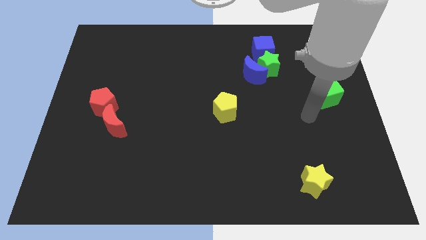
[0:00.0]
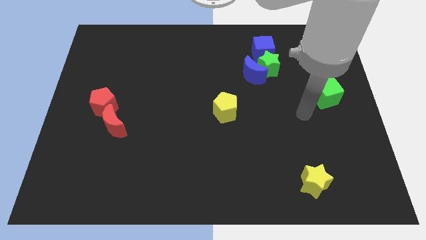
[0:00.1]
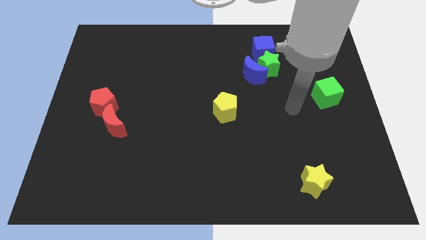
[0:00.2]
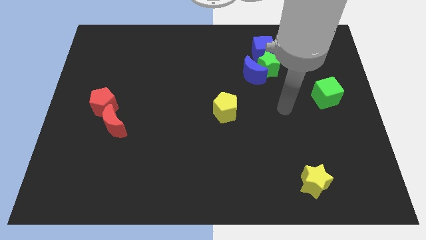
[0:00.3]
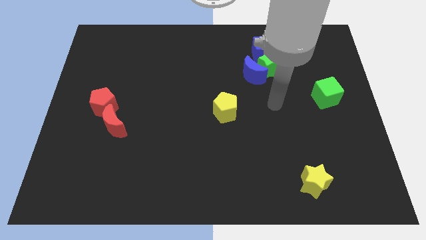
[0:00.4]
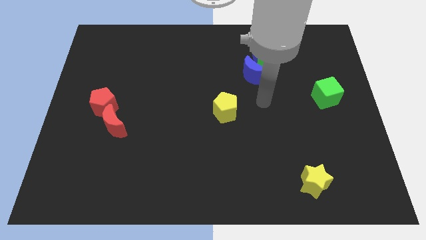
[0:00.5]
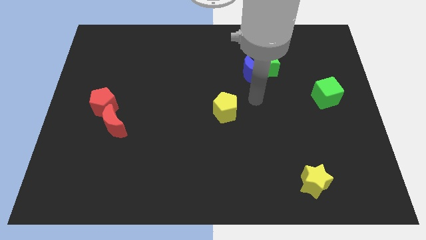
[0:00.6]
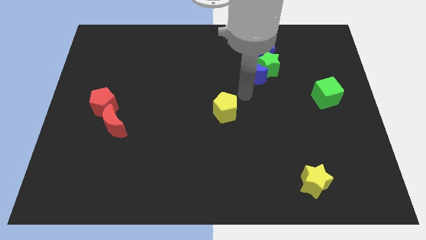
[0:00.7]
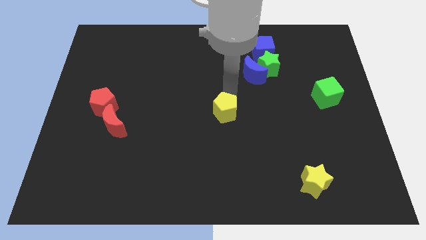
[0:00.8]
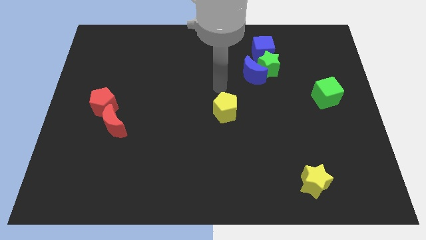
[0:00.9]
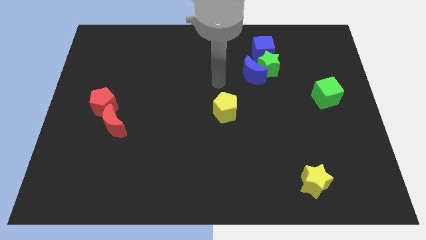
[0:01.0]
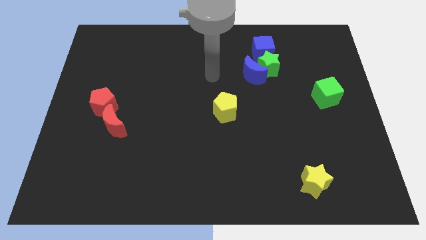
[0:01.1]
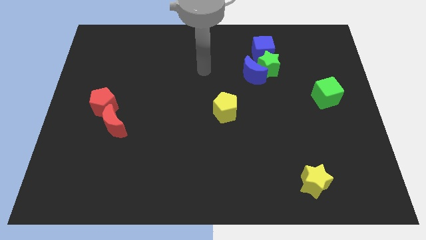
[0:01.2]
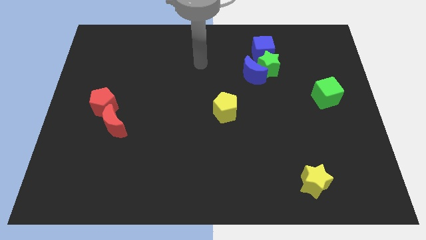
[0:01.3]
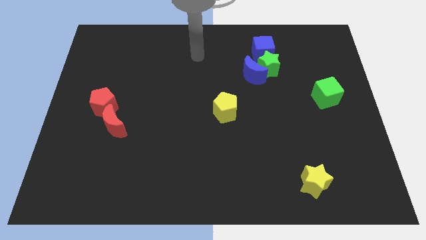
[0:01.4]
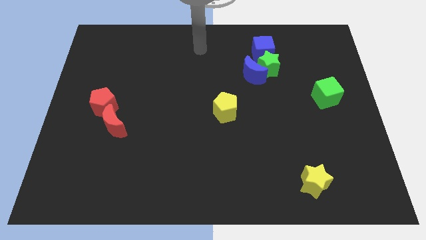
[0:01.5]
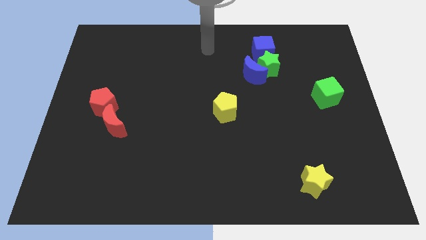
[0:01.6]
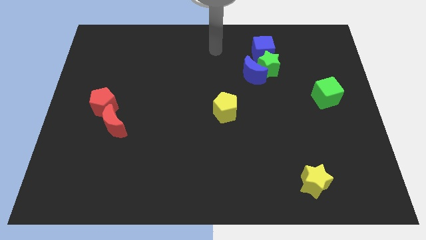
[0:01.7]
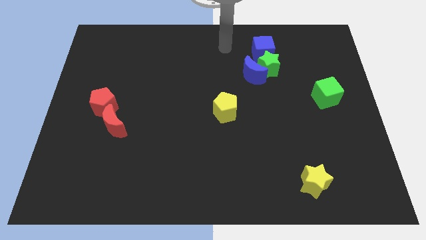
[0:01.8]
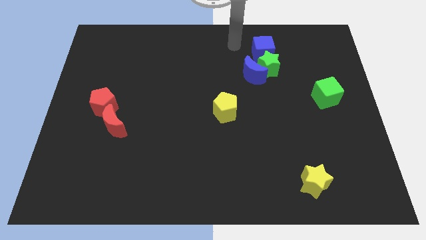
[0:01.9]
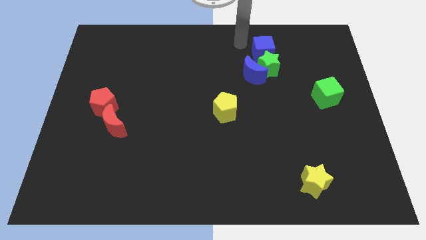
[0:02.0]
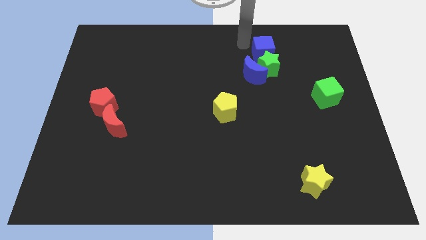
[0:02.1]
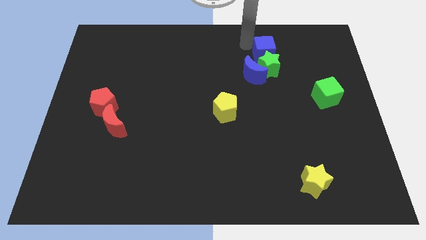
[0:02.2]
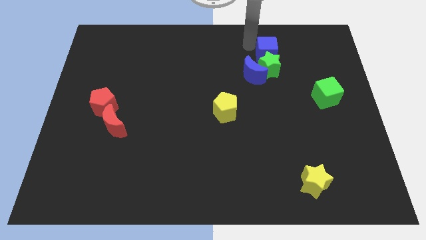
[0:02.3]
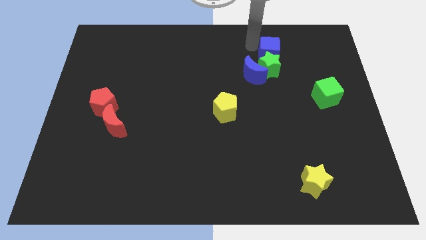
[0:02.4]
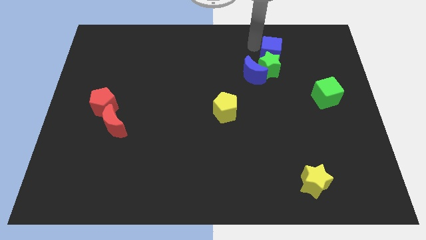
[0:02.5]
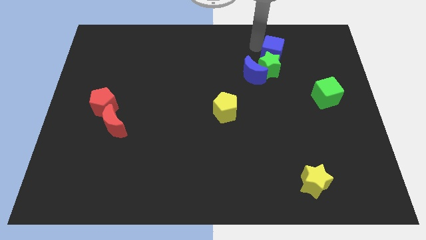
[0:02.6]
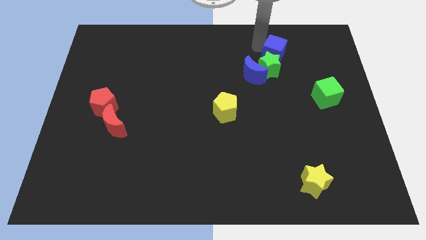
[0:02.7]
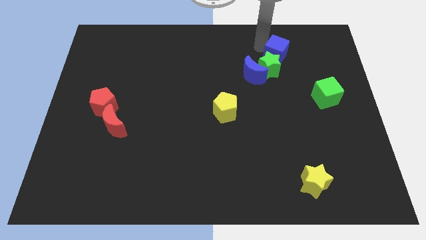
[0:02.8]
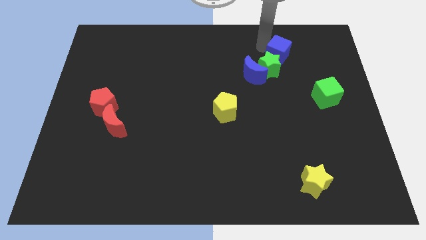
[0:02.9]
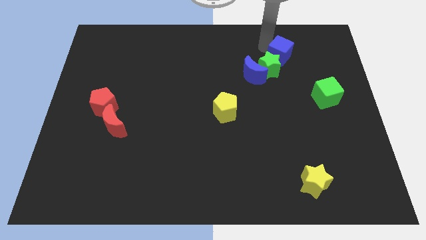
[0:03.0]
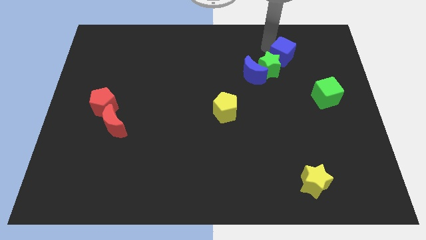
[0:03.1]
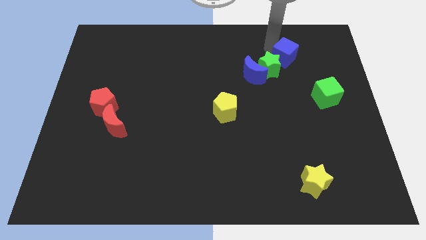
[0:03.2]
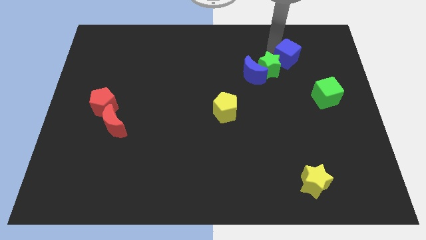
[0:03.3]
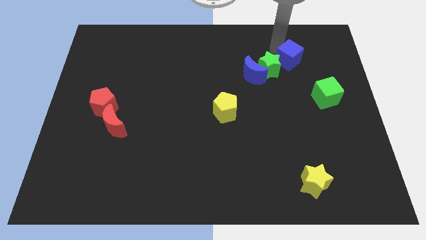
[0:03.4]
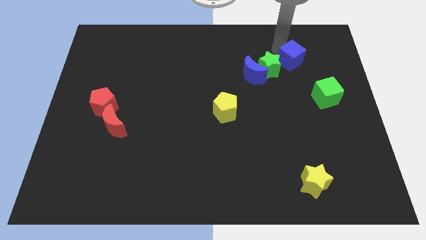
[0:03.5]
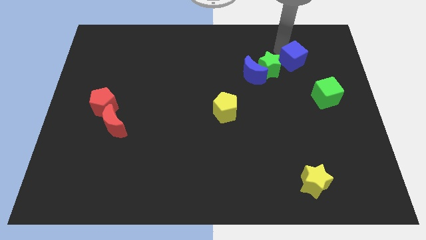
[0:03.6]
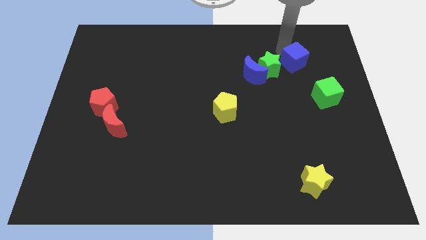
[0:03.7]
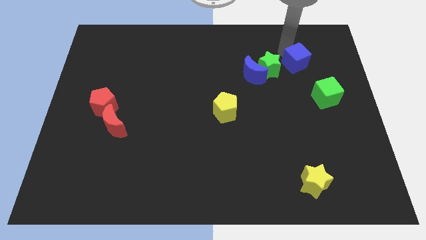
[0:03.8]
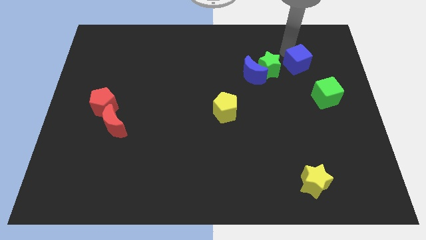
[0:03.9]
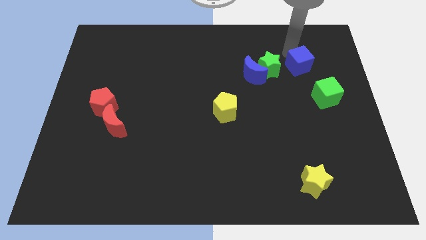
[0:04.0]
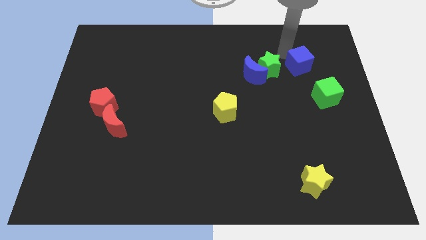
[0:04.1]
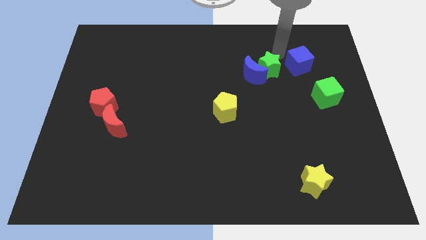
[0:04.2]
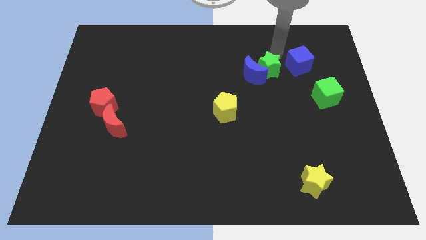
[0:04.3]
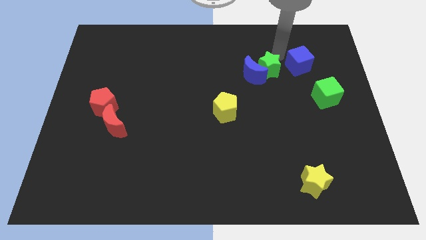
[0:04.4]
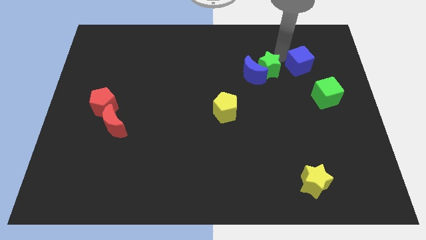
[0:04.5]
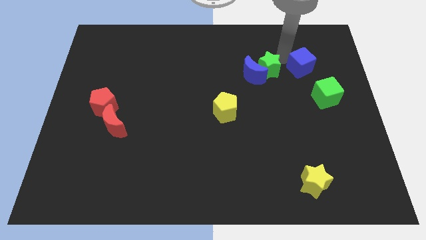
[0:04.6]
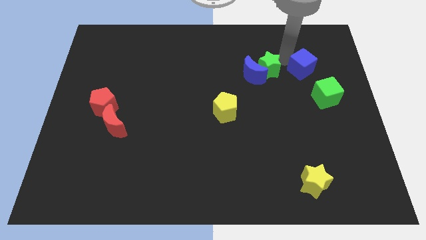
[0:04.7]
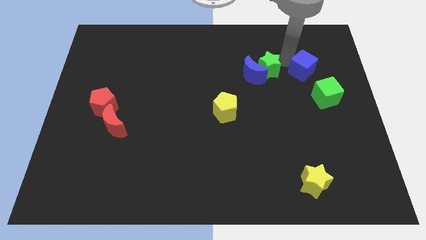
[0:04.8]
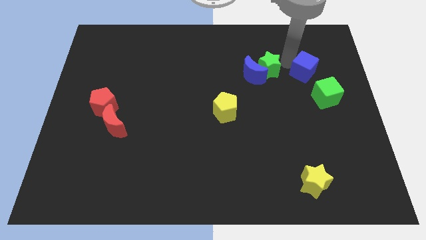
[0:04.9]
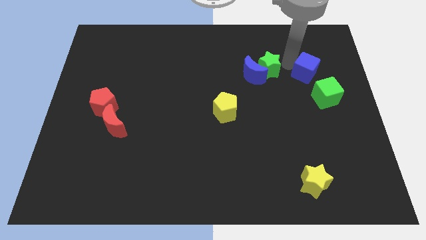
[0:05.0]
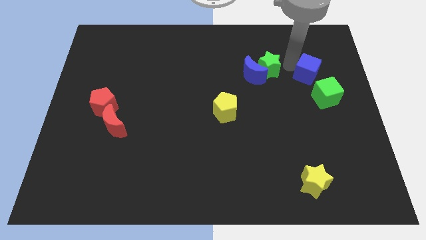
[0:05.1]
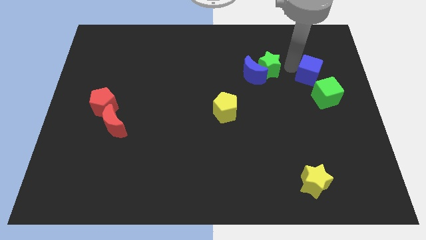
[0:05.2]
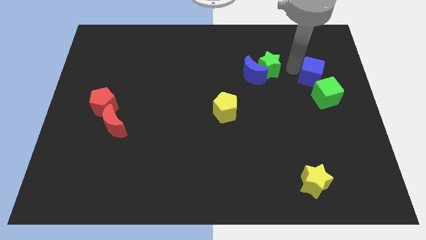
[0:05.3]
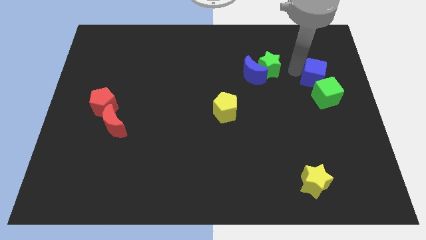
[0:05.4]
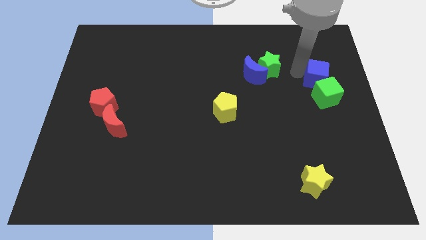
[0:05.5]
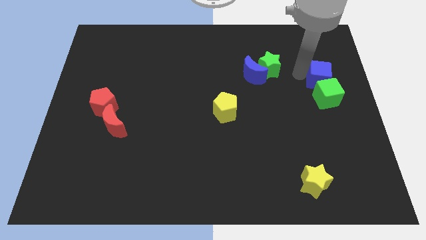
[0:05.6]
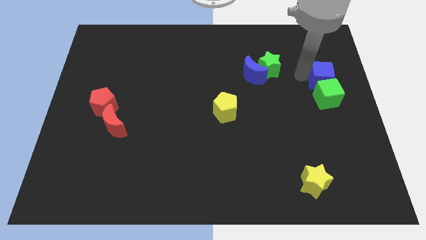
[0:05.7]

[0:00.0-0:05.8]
put the blue cube to the right side of the board
